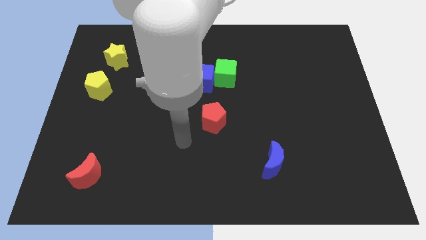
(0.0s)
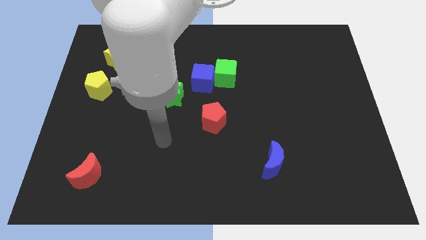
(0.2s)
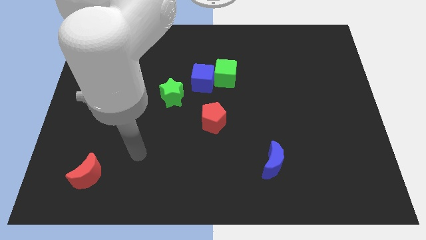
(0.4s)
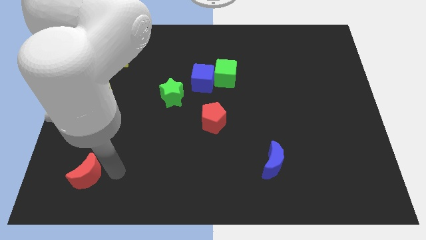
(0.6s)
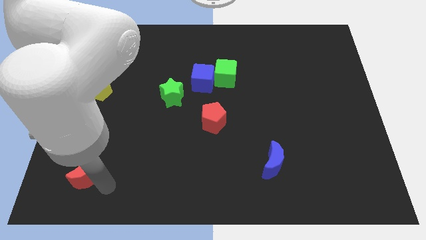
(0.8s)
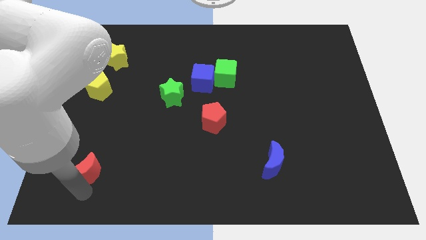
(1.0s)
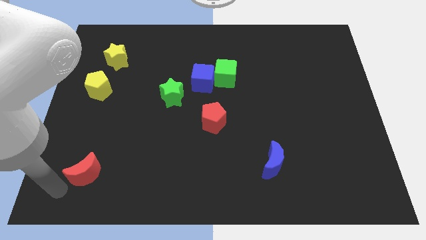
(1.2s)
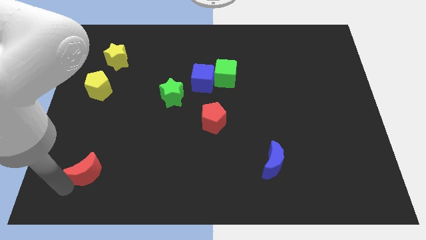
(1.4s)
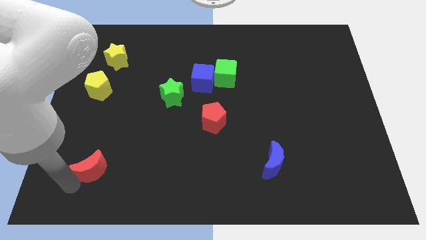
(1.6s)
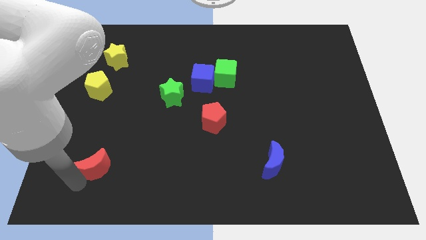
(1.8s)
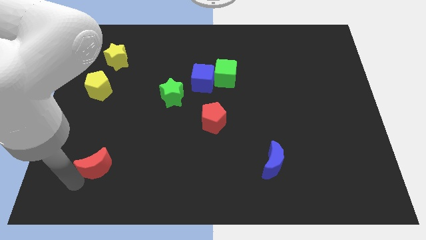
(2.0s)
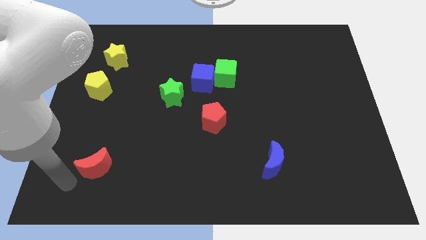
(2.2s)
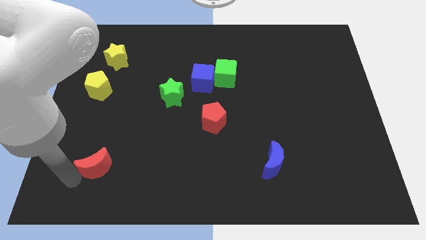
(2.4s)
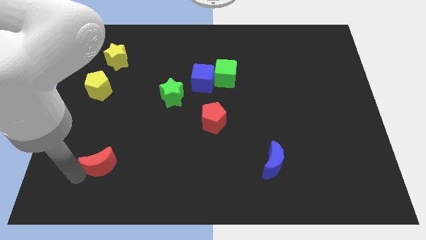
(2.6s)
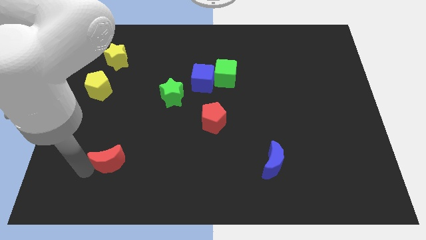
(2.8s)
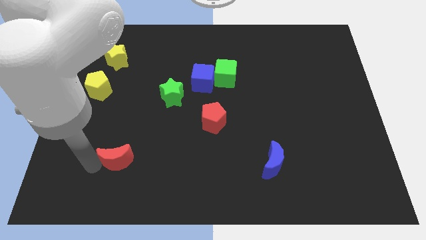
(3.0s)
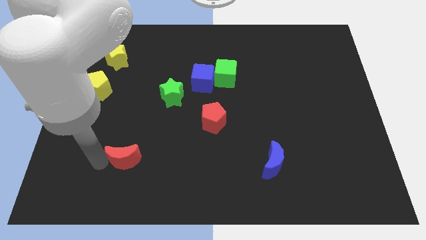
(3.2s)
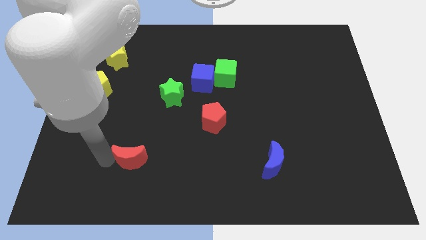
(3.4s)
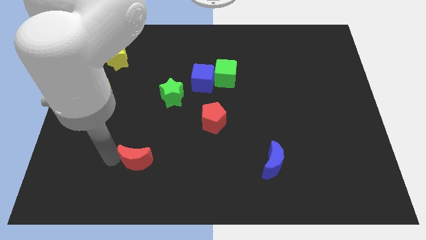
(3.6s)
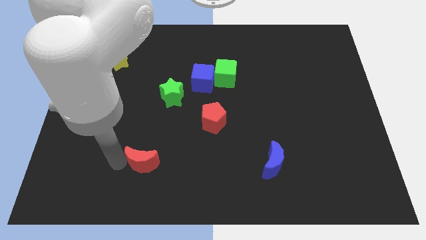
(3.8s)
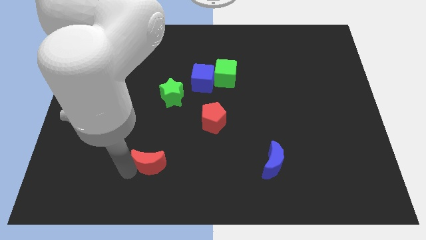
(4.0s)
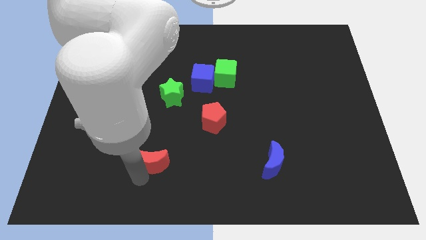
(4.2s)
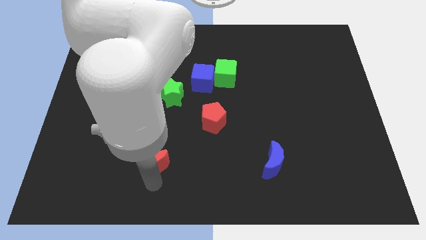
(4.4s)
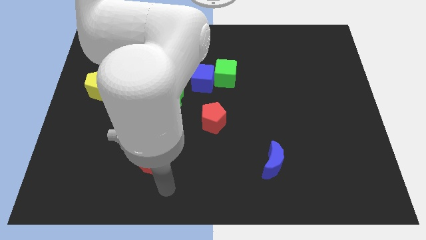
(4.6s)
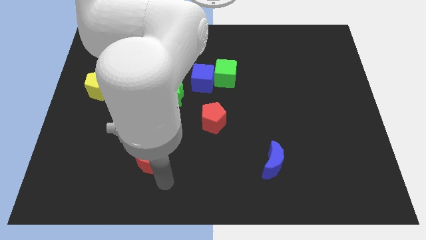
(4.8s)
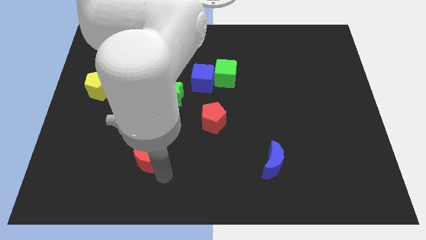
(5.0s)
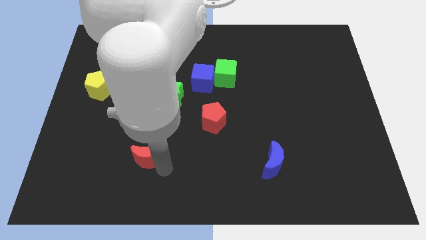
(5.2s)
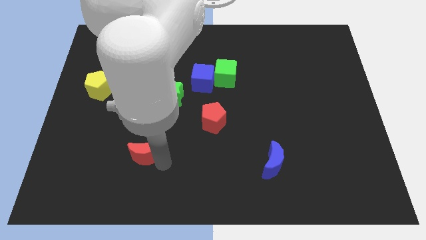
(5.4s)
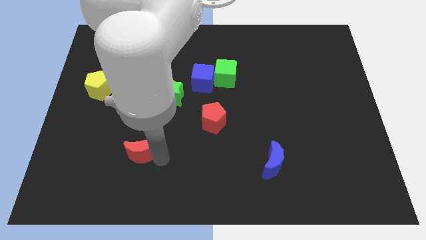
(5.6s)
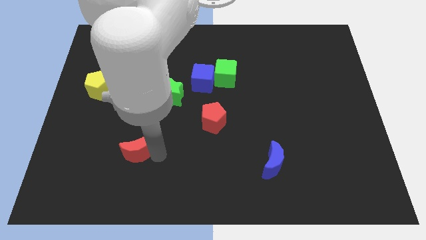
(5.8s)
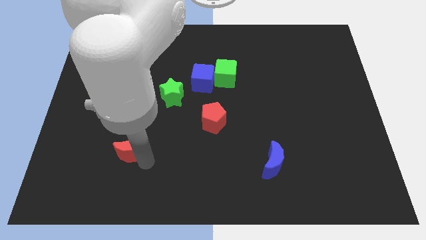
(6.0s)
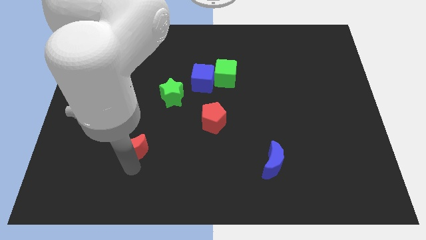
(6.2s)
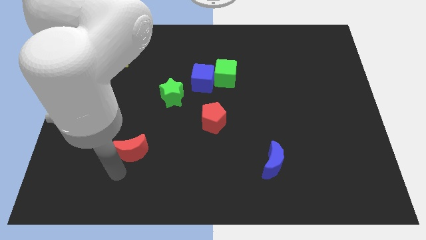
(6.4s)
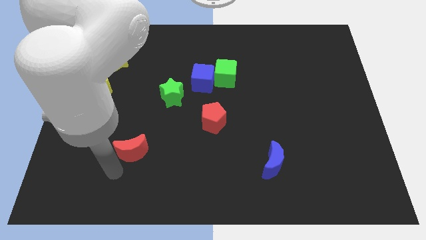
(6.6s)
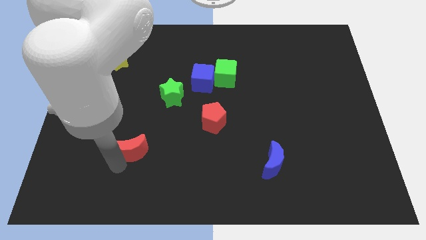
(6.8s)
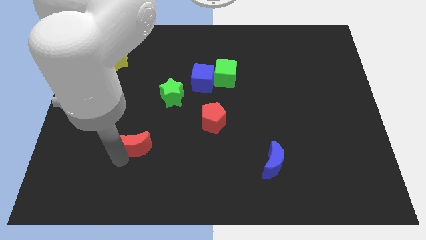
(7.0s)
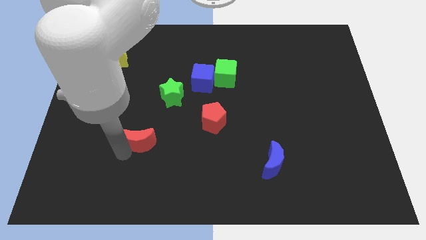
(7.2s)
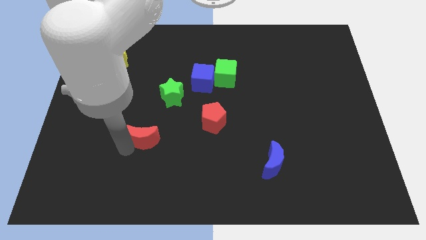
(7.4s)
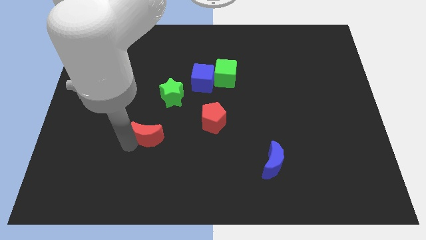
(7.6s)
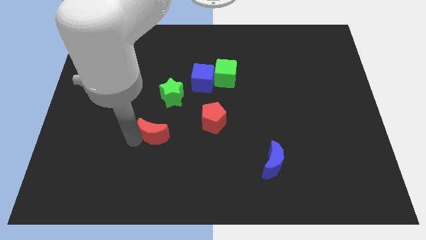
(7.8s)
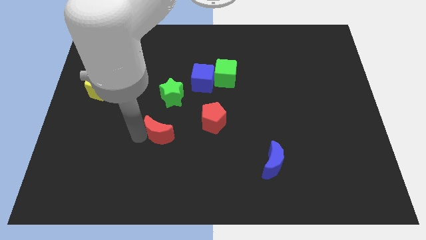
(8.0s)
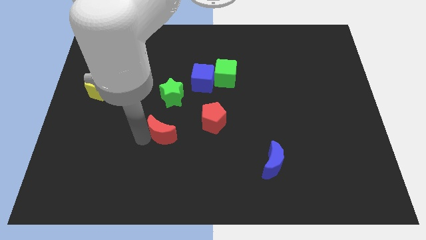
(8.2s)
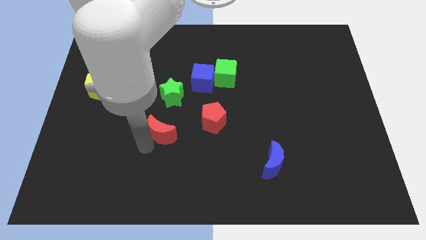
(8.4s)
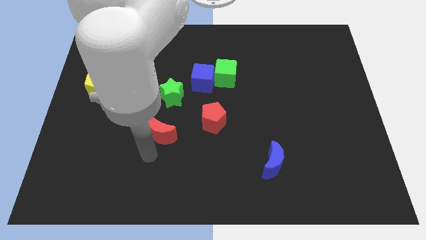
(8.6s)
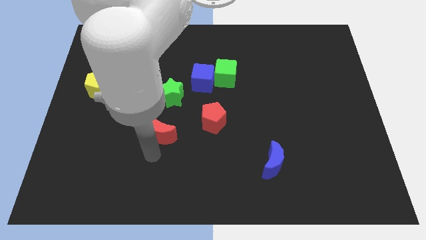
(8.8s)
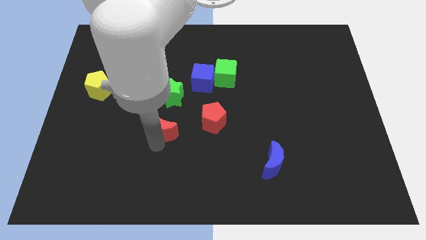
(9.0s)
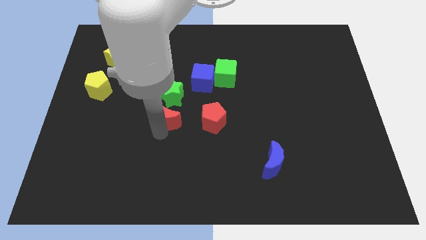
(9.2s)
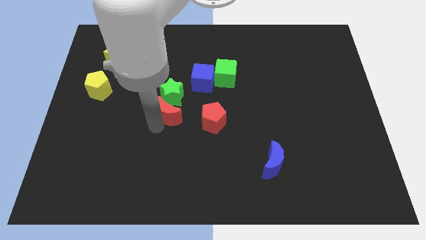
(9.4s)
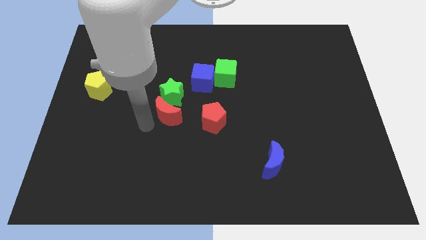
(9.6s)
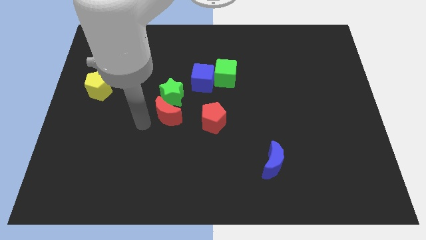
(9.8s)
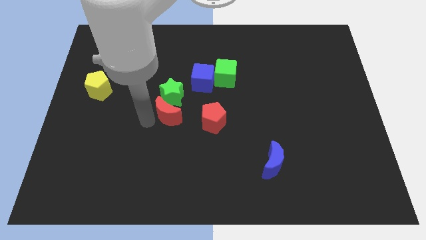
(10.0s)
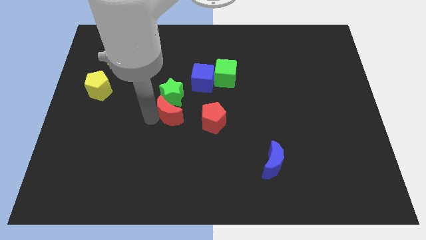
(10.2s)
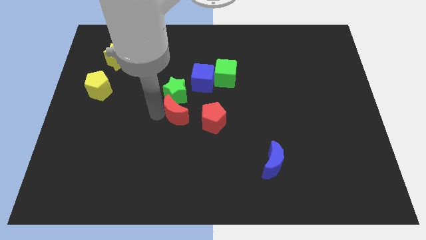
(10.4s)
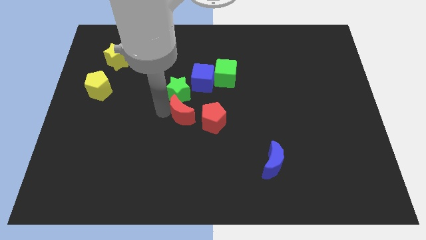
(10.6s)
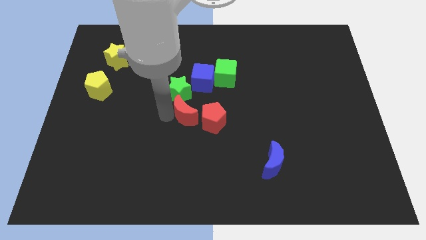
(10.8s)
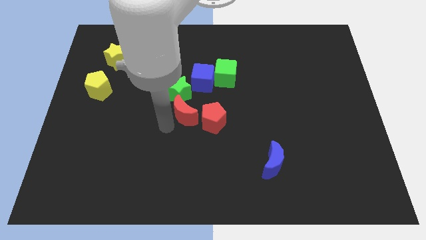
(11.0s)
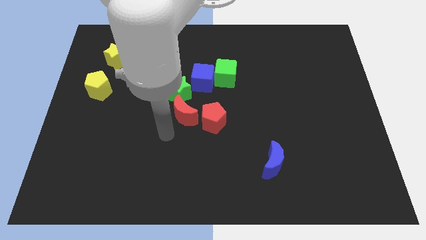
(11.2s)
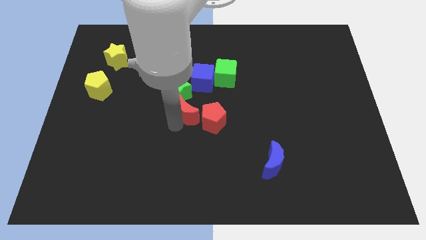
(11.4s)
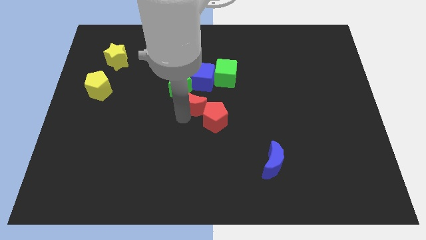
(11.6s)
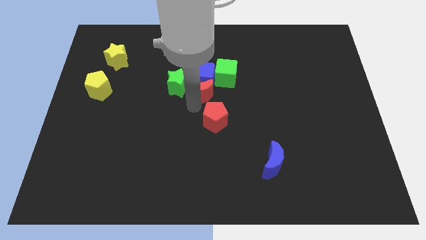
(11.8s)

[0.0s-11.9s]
slide the red moon close to the blue cube

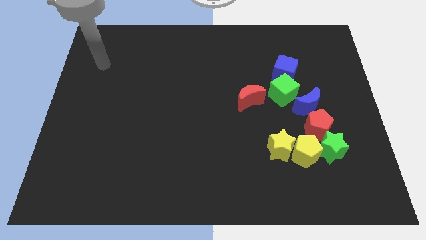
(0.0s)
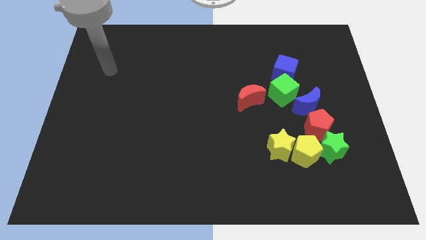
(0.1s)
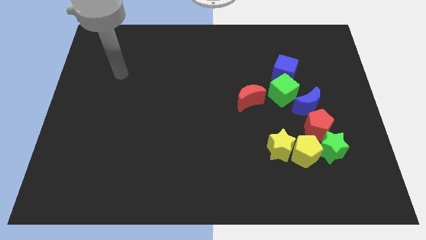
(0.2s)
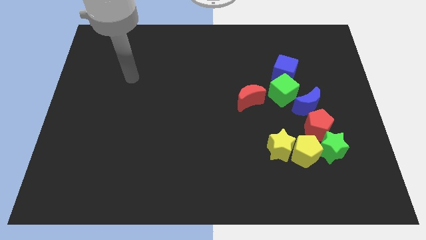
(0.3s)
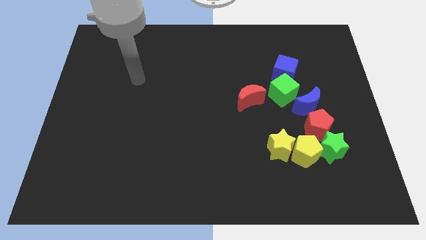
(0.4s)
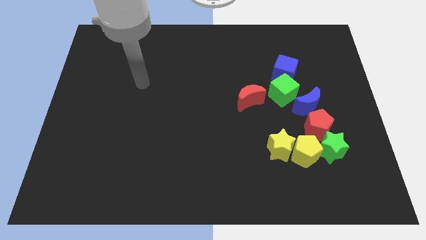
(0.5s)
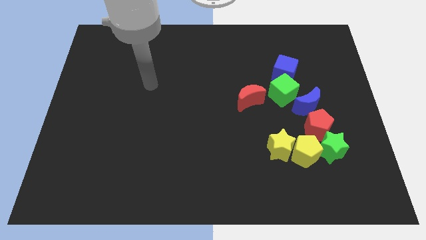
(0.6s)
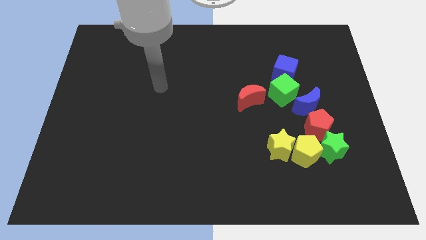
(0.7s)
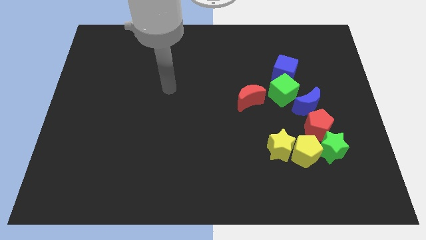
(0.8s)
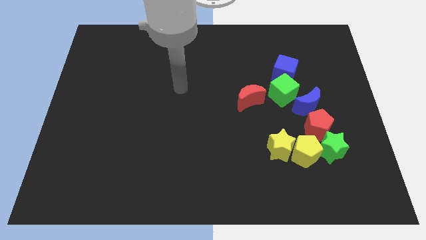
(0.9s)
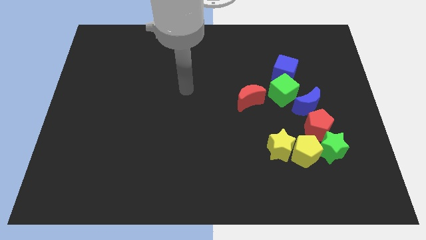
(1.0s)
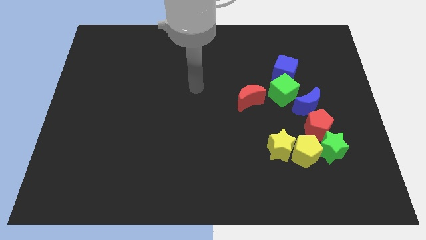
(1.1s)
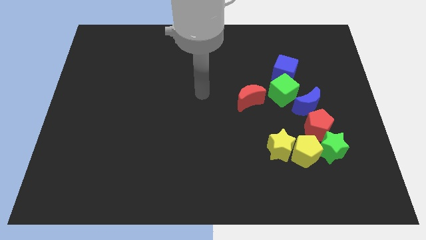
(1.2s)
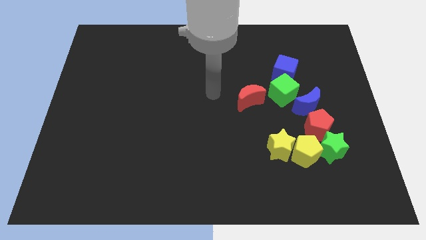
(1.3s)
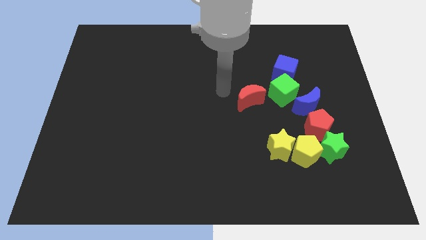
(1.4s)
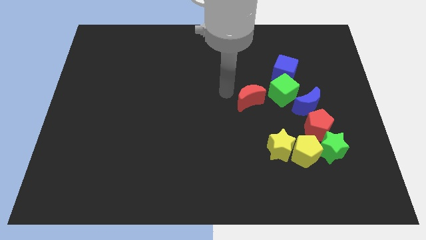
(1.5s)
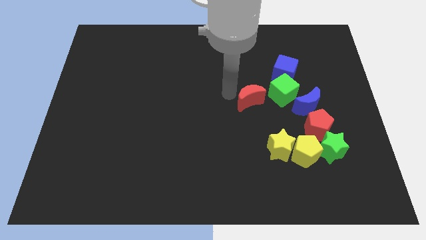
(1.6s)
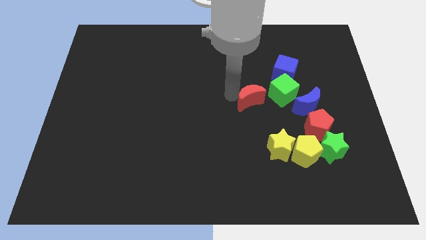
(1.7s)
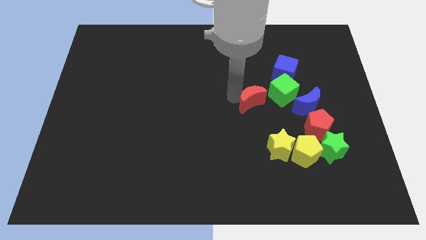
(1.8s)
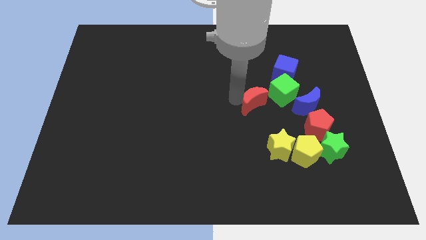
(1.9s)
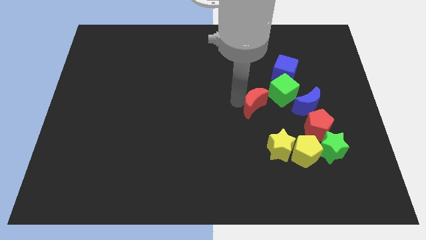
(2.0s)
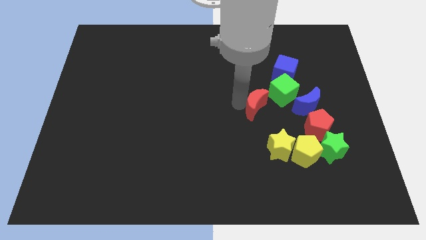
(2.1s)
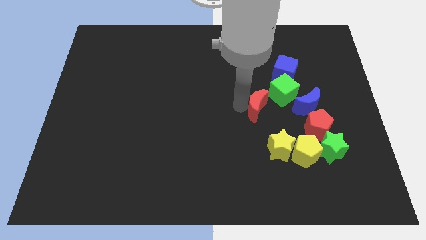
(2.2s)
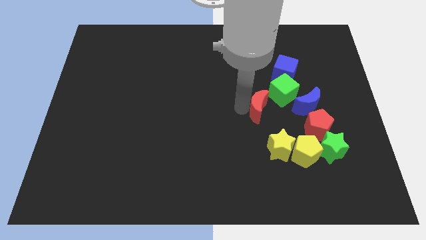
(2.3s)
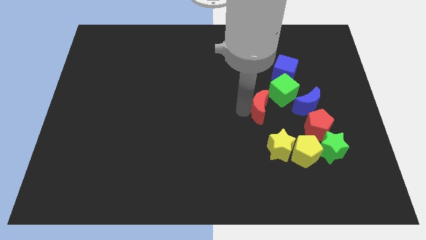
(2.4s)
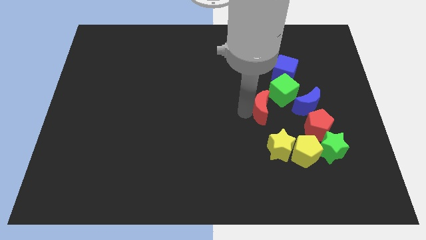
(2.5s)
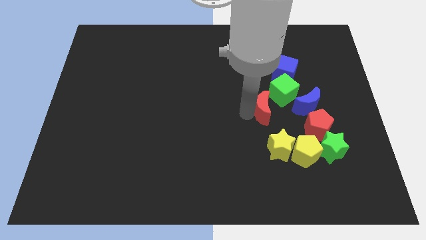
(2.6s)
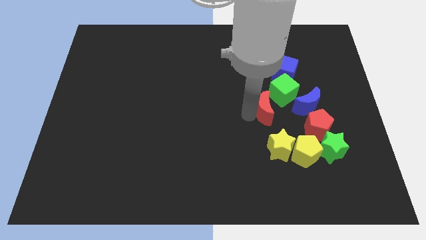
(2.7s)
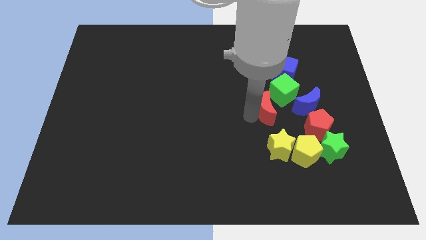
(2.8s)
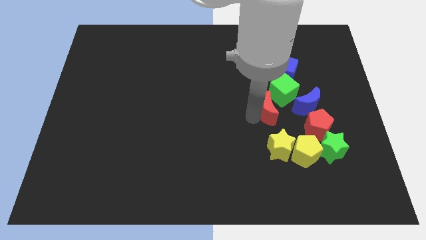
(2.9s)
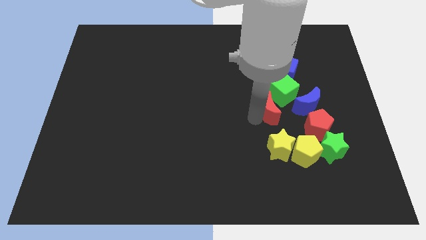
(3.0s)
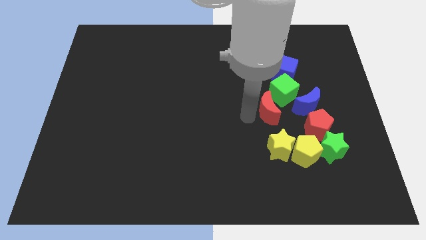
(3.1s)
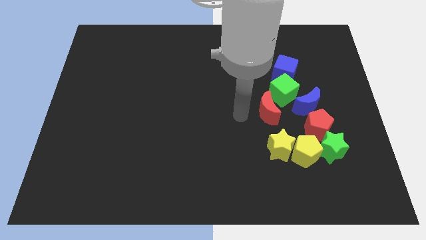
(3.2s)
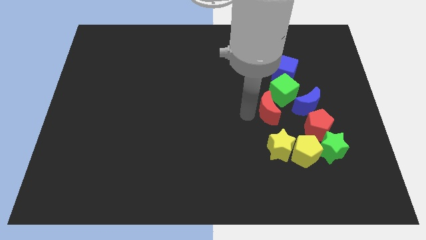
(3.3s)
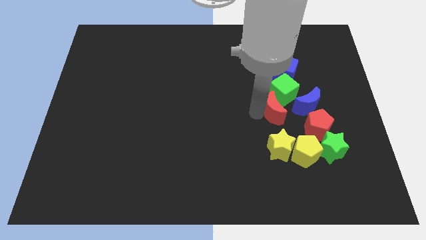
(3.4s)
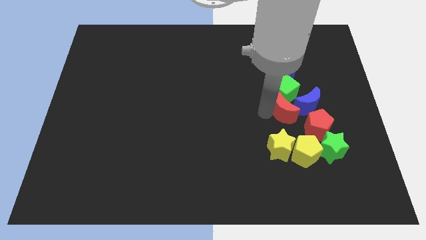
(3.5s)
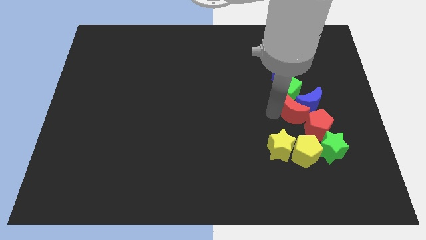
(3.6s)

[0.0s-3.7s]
put the red moon towards the blue moon
